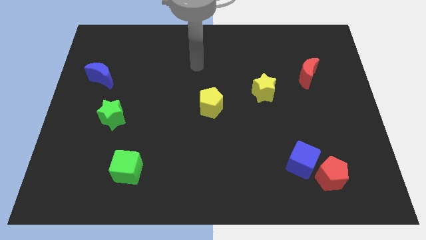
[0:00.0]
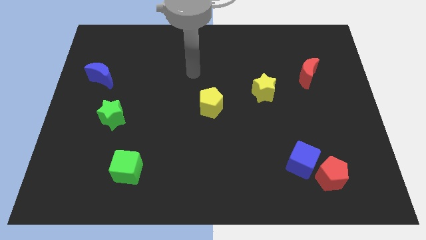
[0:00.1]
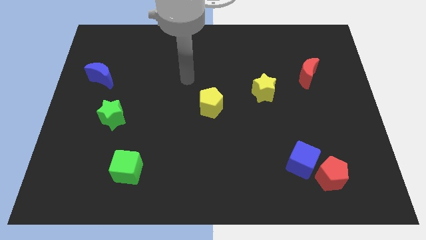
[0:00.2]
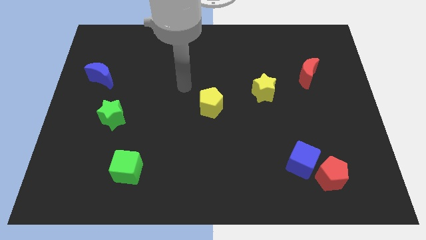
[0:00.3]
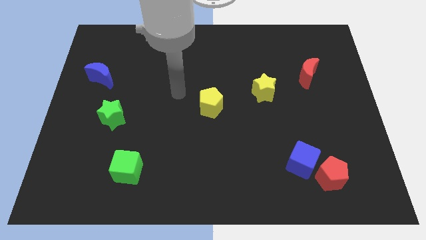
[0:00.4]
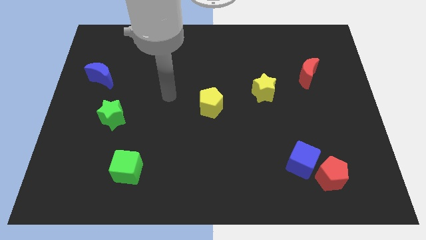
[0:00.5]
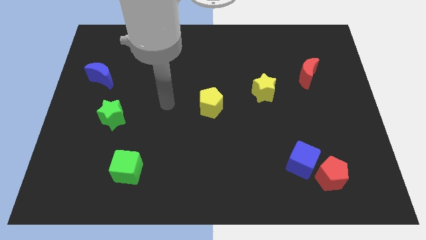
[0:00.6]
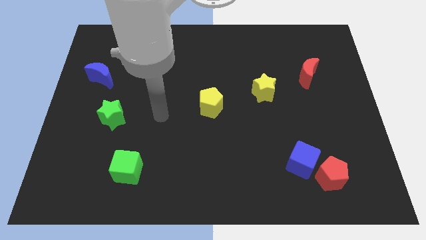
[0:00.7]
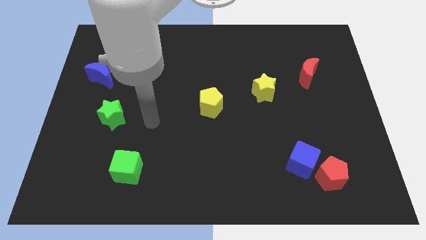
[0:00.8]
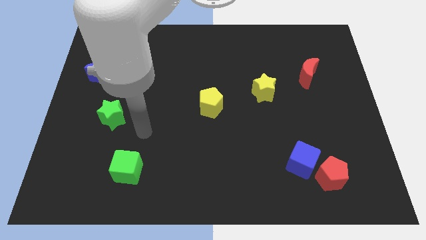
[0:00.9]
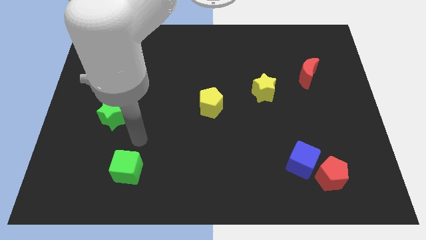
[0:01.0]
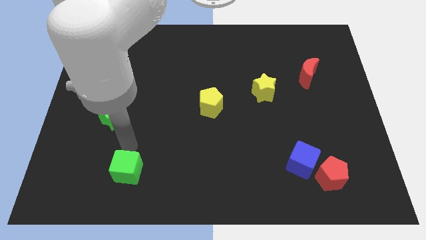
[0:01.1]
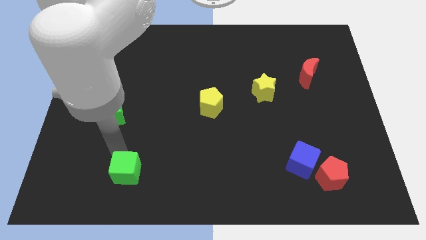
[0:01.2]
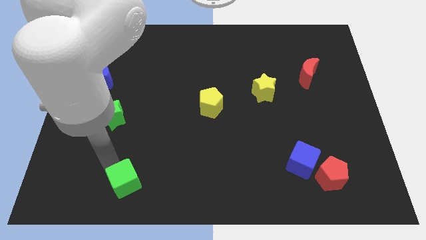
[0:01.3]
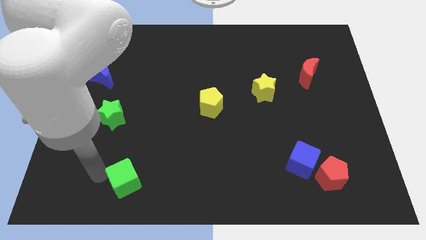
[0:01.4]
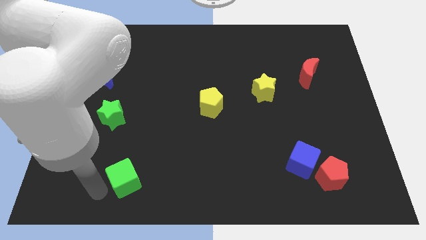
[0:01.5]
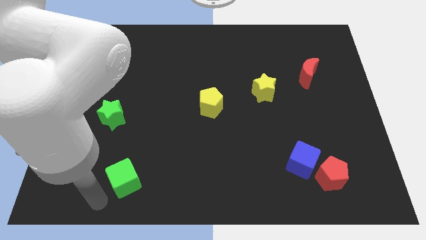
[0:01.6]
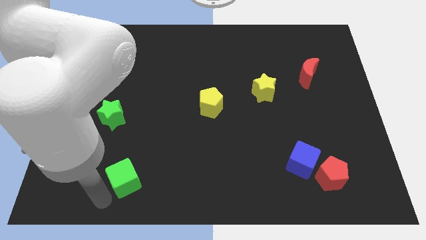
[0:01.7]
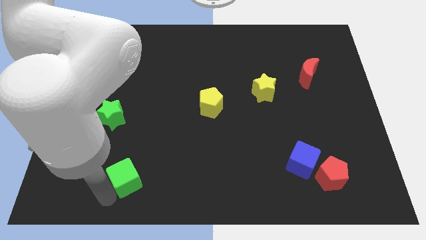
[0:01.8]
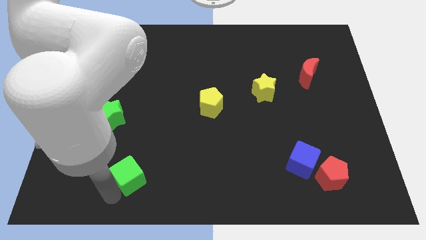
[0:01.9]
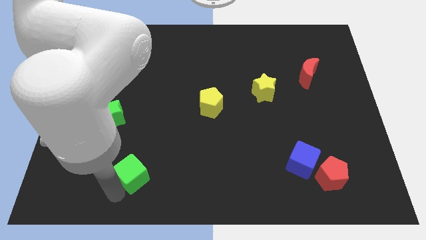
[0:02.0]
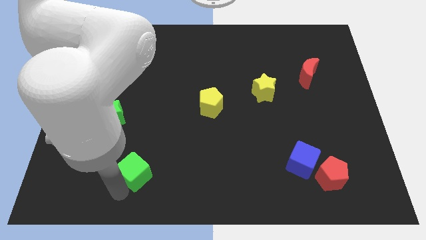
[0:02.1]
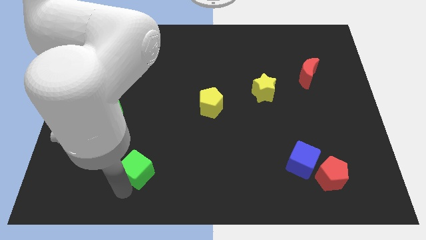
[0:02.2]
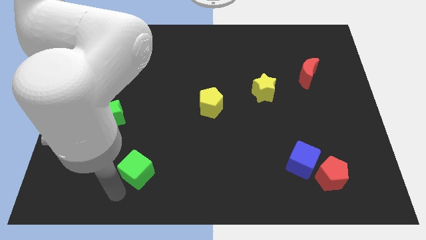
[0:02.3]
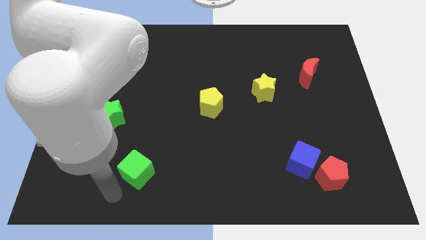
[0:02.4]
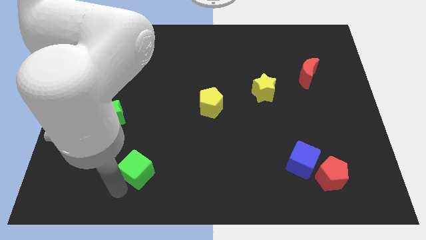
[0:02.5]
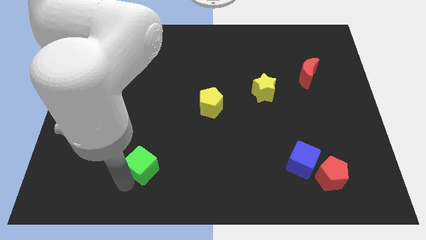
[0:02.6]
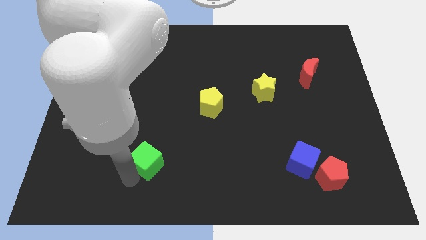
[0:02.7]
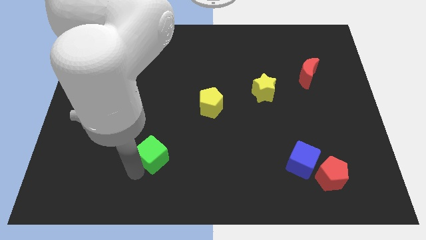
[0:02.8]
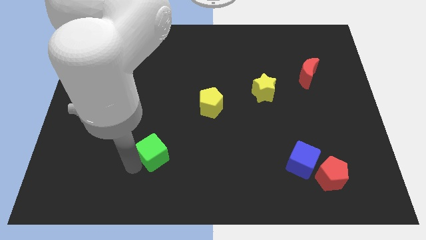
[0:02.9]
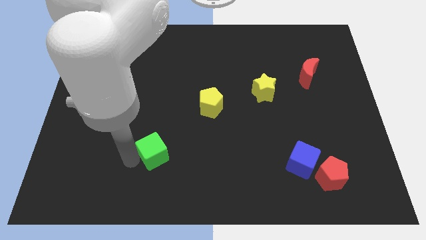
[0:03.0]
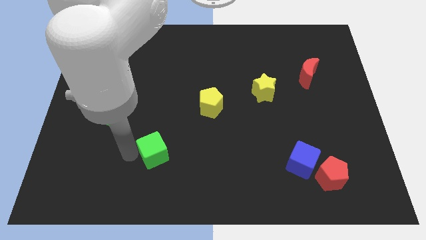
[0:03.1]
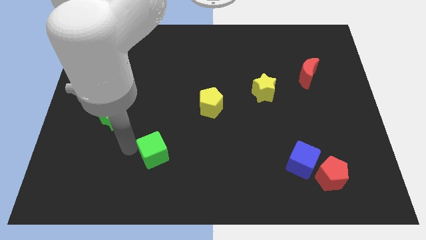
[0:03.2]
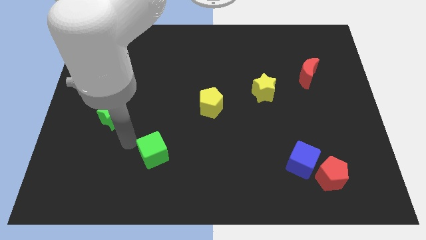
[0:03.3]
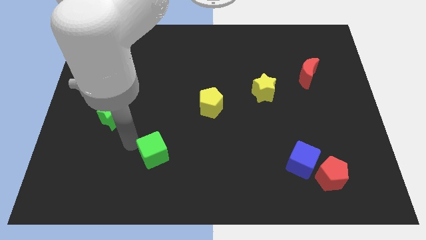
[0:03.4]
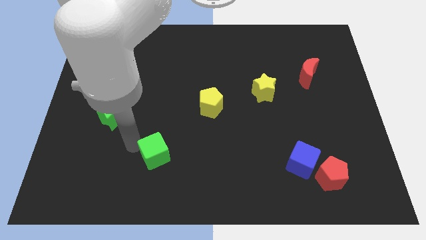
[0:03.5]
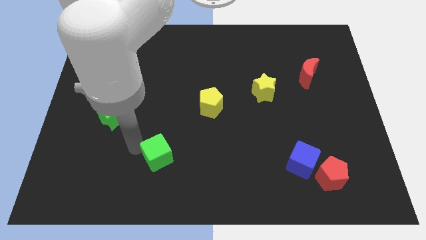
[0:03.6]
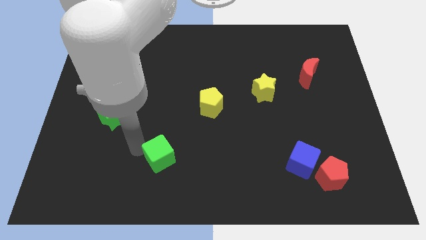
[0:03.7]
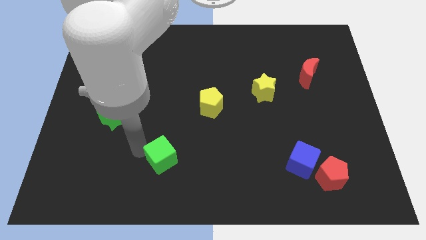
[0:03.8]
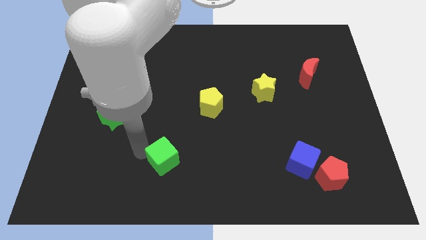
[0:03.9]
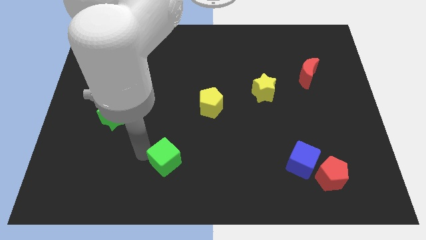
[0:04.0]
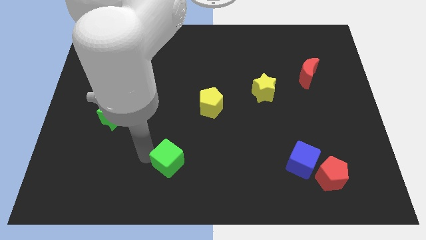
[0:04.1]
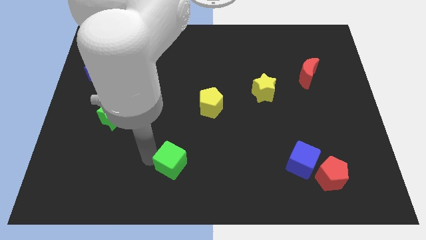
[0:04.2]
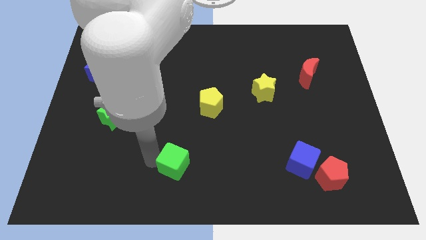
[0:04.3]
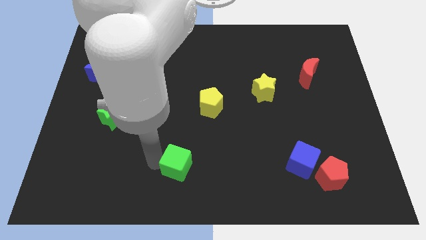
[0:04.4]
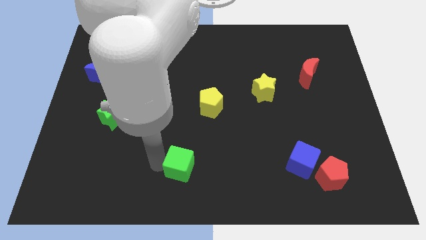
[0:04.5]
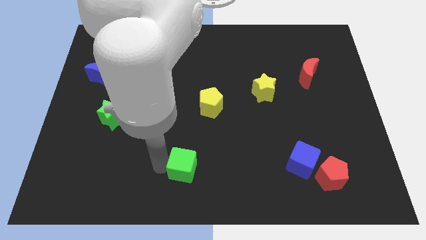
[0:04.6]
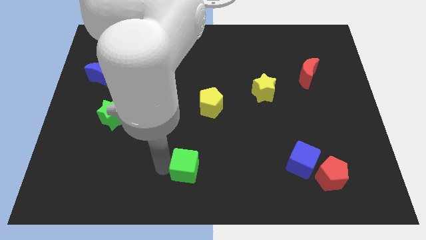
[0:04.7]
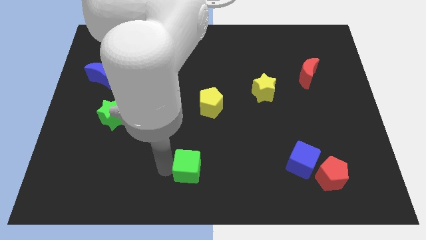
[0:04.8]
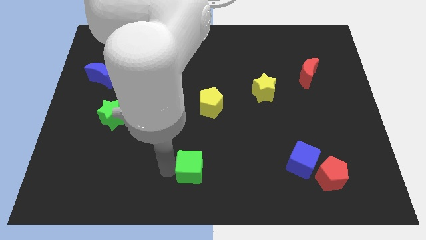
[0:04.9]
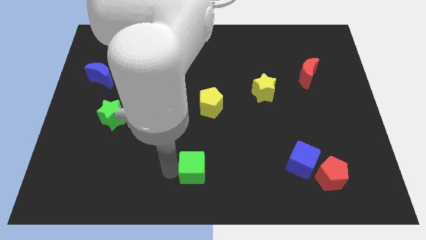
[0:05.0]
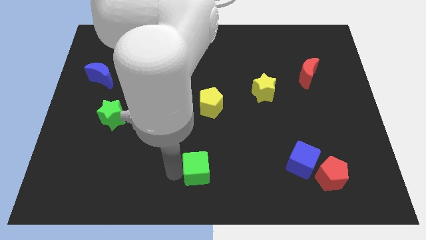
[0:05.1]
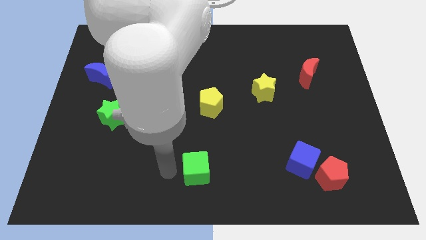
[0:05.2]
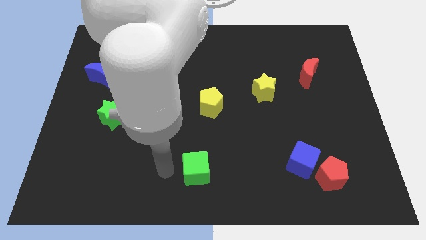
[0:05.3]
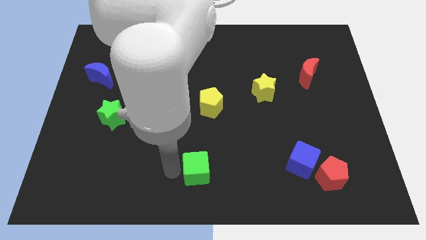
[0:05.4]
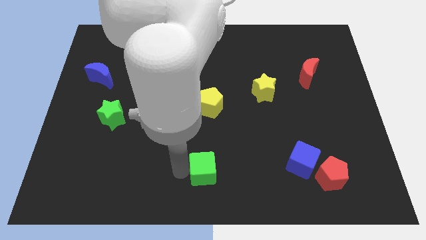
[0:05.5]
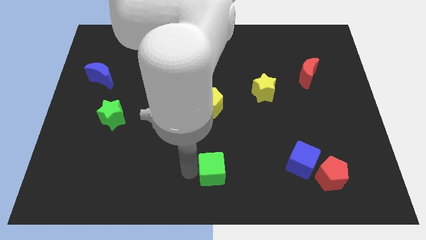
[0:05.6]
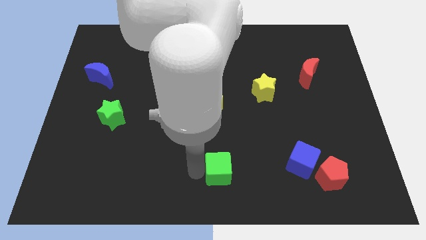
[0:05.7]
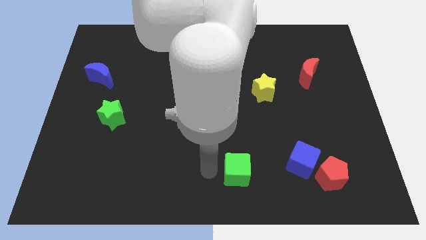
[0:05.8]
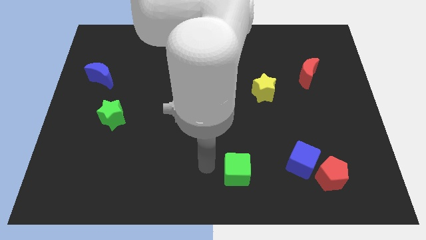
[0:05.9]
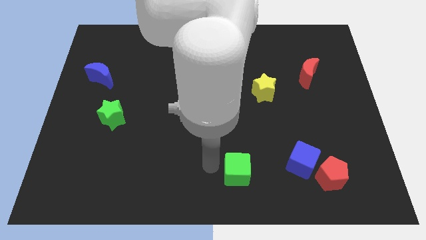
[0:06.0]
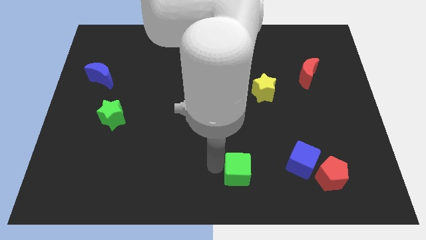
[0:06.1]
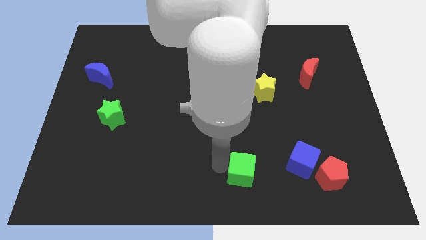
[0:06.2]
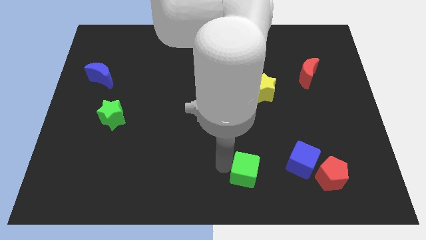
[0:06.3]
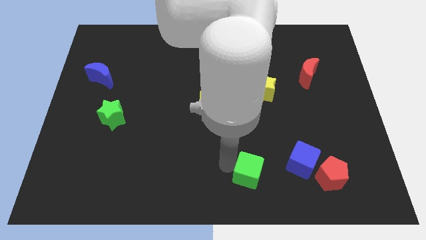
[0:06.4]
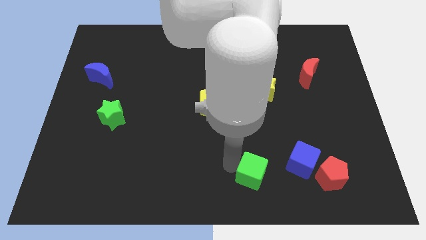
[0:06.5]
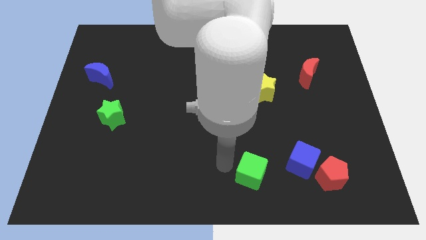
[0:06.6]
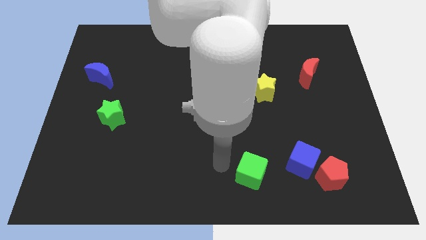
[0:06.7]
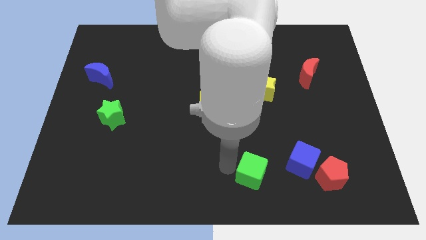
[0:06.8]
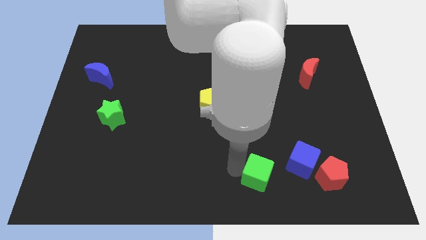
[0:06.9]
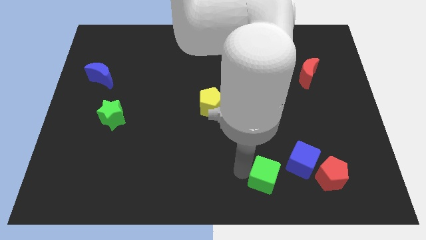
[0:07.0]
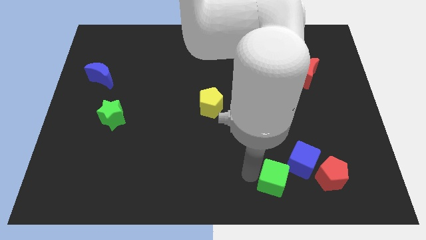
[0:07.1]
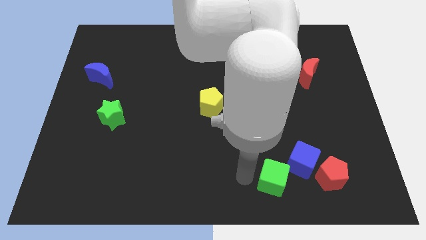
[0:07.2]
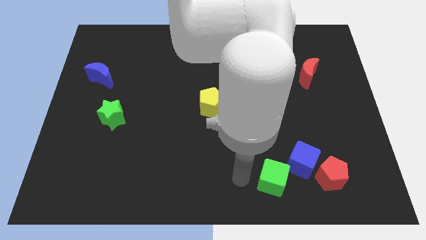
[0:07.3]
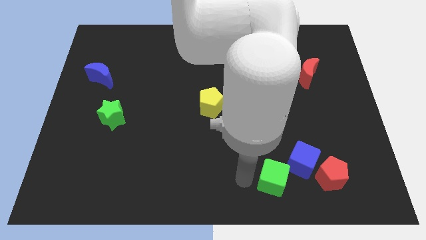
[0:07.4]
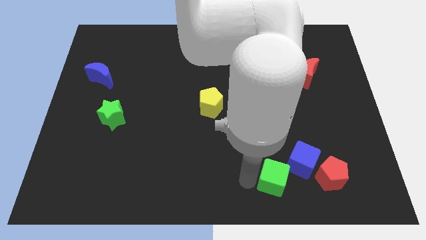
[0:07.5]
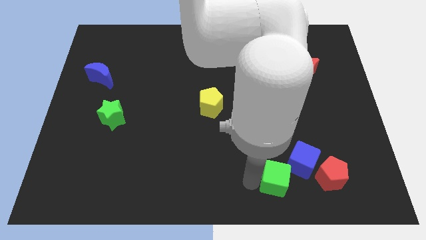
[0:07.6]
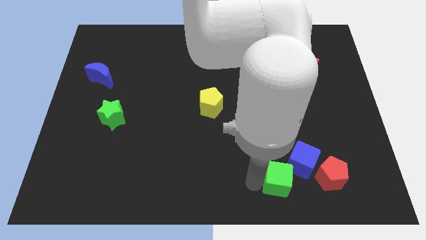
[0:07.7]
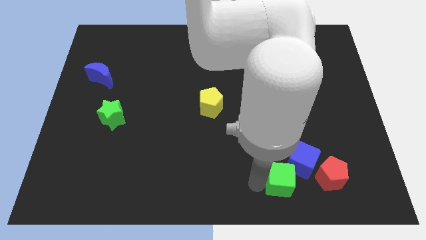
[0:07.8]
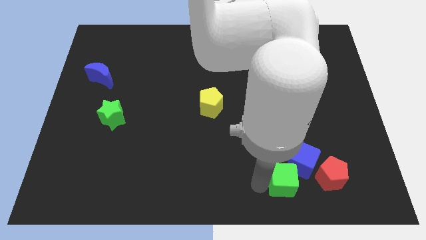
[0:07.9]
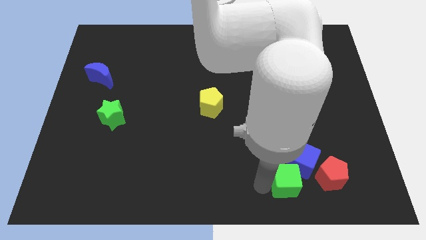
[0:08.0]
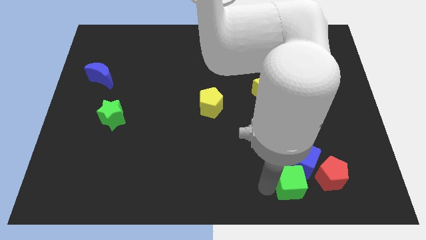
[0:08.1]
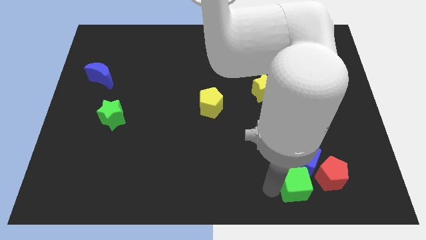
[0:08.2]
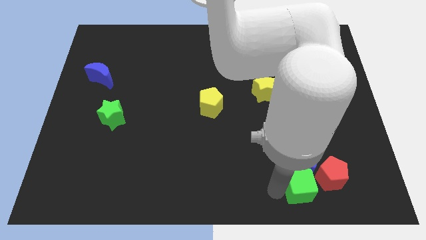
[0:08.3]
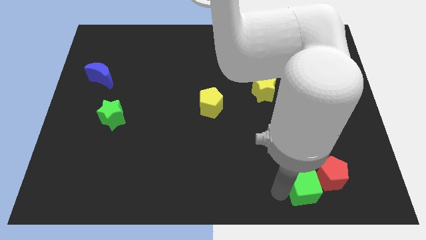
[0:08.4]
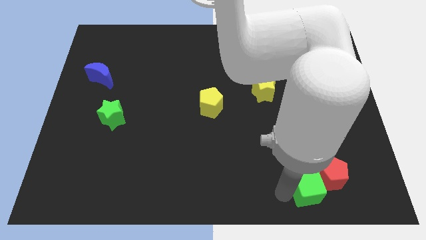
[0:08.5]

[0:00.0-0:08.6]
put the green cube close to the red pentagon
